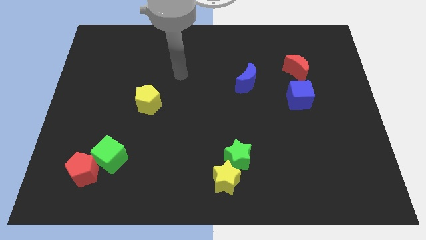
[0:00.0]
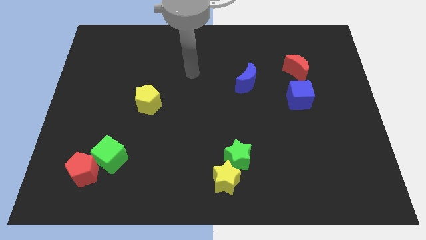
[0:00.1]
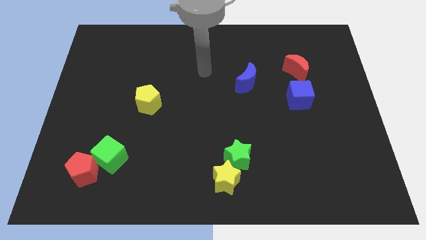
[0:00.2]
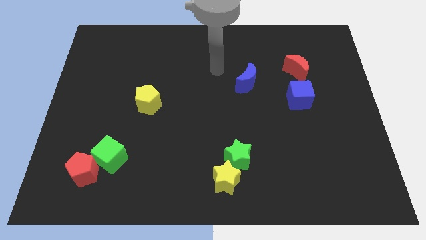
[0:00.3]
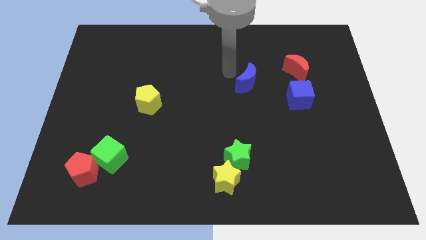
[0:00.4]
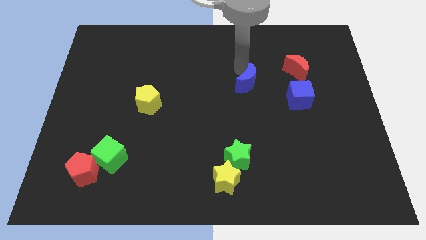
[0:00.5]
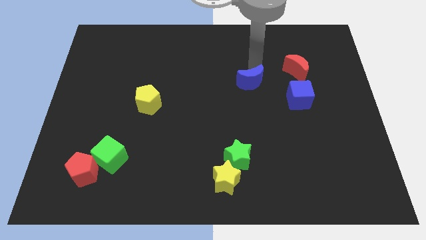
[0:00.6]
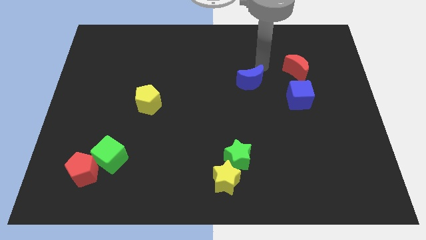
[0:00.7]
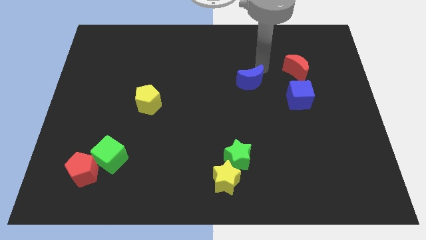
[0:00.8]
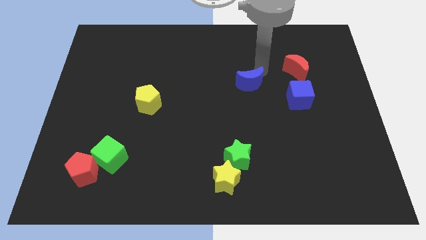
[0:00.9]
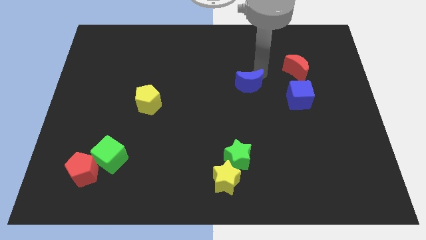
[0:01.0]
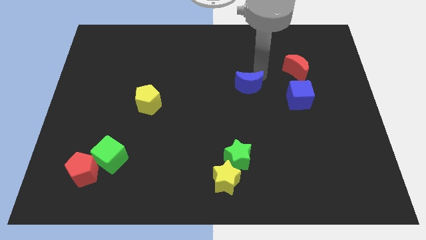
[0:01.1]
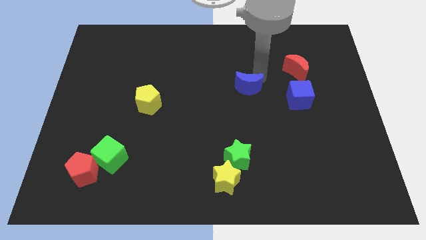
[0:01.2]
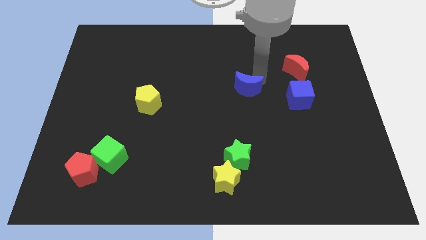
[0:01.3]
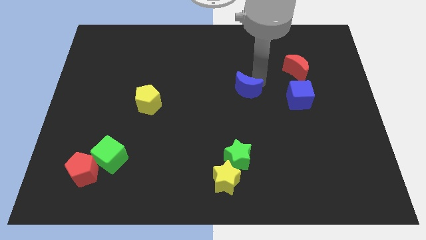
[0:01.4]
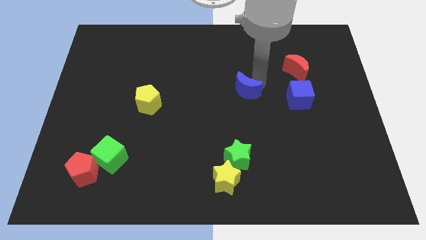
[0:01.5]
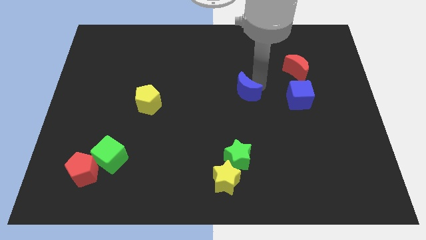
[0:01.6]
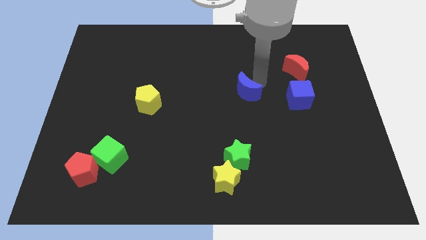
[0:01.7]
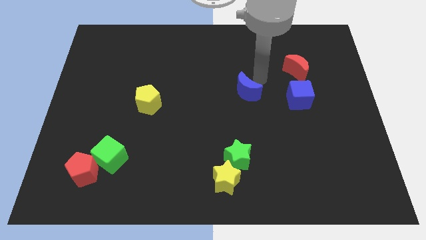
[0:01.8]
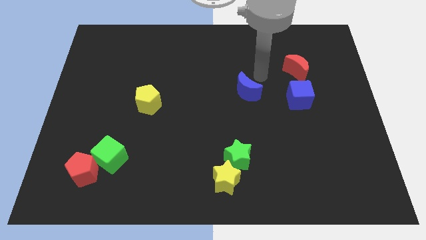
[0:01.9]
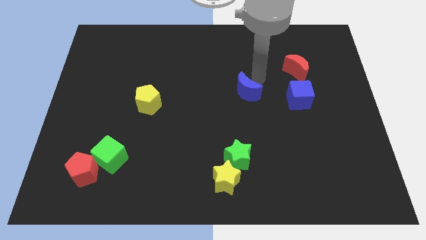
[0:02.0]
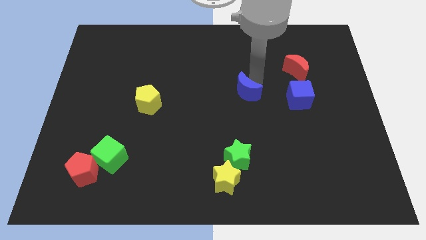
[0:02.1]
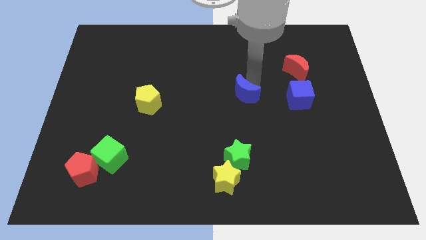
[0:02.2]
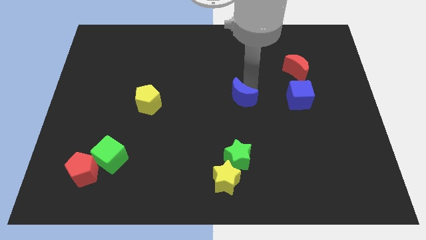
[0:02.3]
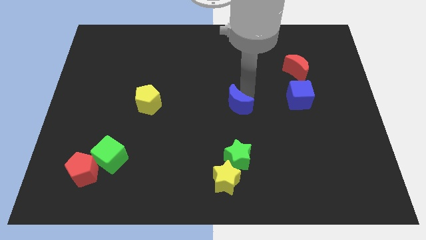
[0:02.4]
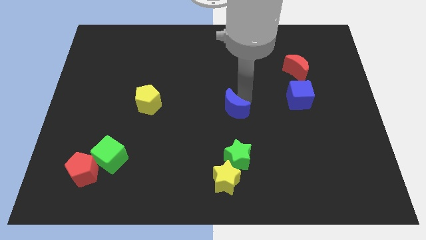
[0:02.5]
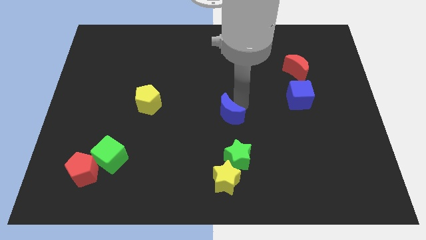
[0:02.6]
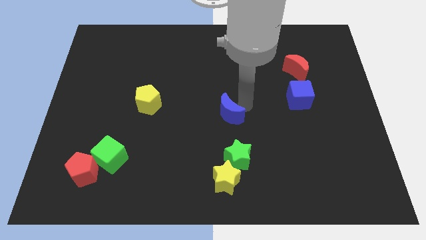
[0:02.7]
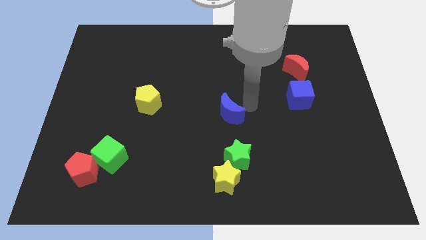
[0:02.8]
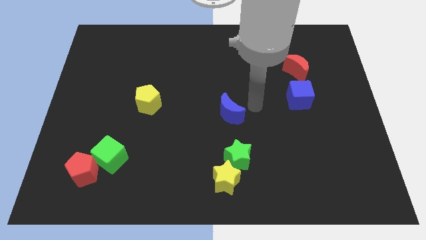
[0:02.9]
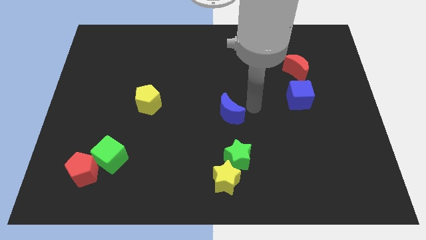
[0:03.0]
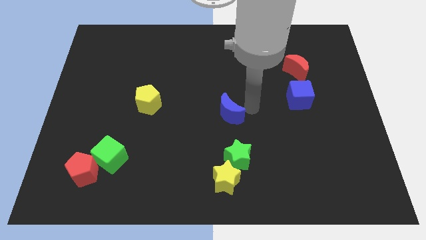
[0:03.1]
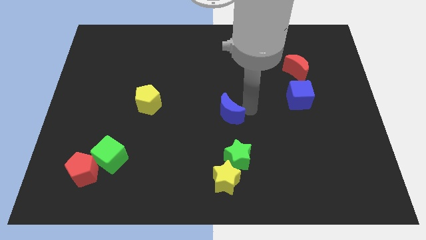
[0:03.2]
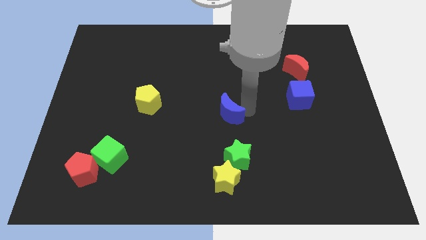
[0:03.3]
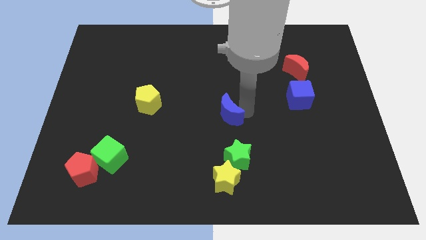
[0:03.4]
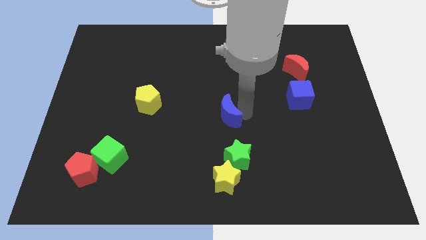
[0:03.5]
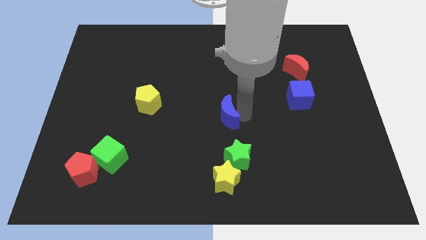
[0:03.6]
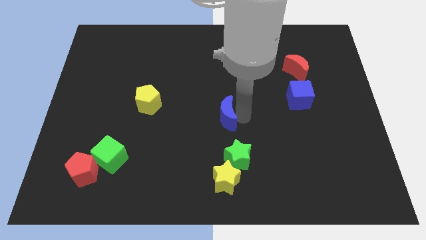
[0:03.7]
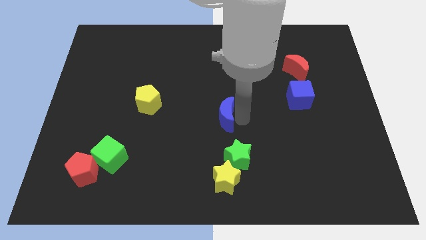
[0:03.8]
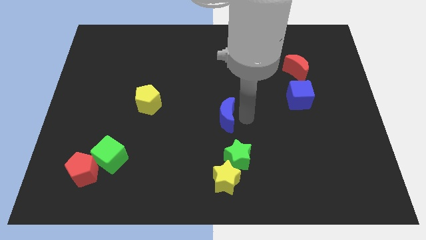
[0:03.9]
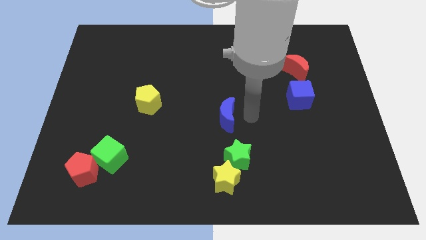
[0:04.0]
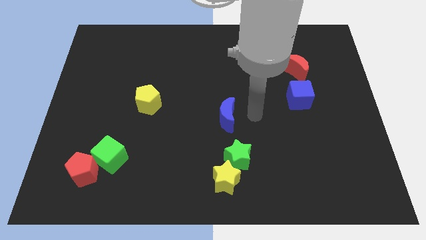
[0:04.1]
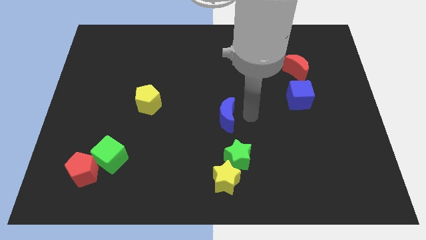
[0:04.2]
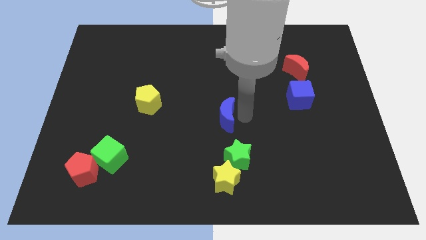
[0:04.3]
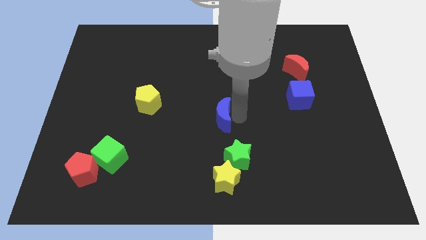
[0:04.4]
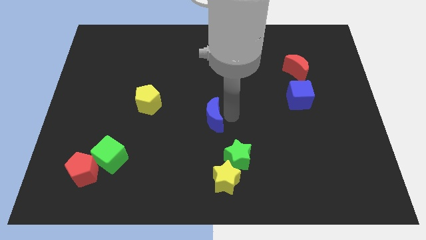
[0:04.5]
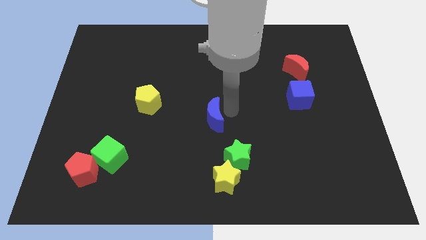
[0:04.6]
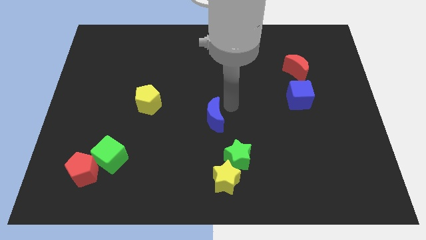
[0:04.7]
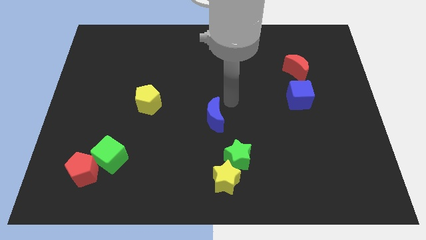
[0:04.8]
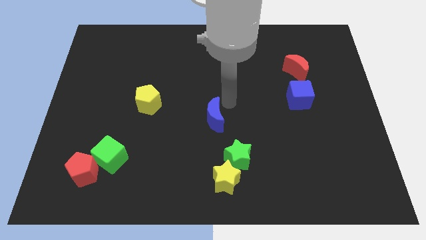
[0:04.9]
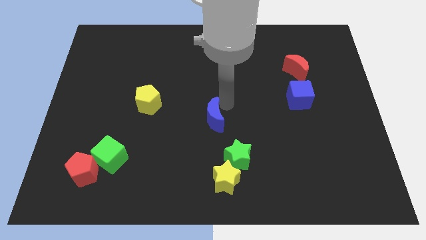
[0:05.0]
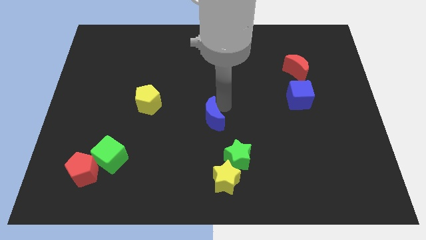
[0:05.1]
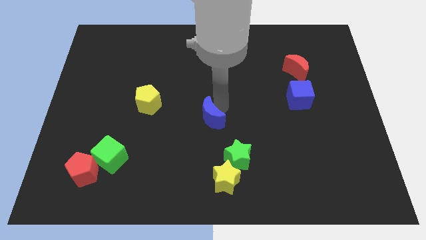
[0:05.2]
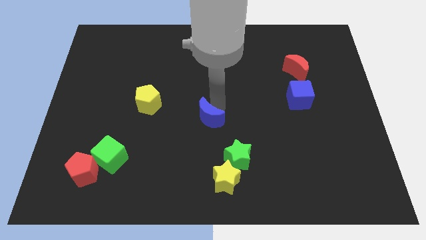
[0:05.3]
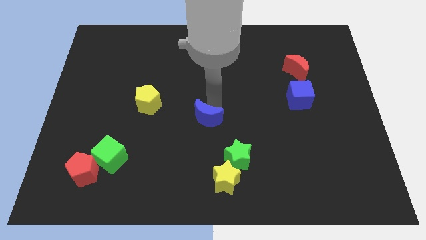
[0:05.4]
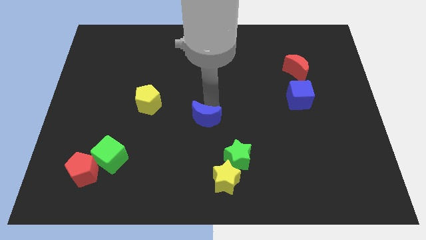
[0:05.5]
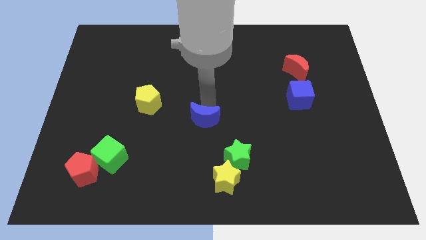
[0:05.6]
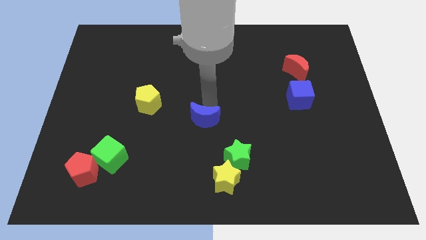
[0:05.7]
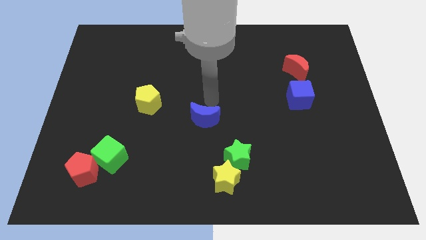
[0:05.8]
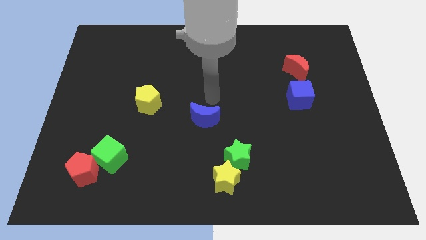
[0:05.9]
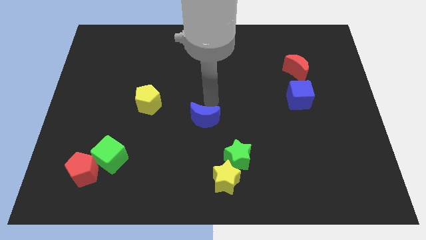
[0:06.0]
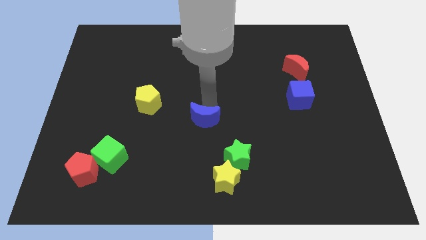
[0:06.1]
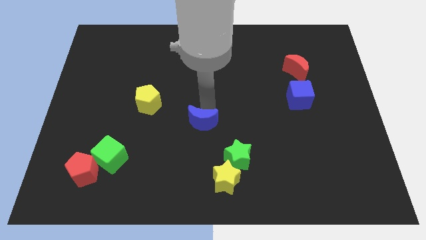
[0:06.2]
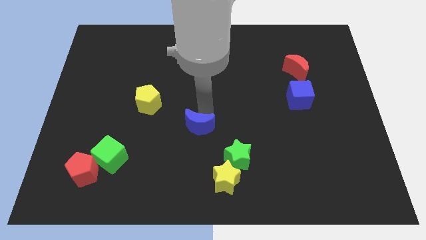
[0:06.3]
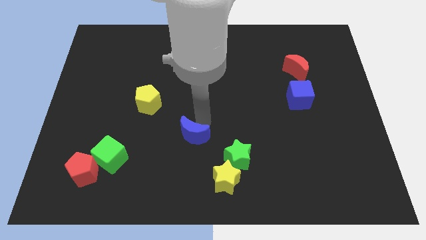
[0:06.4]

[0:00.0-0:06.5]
move the blue moon down and then left

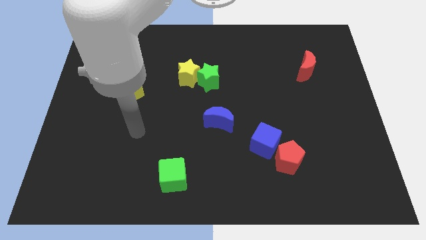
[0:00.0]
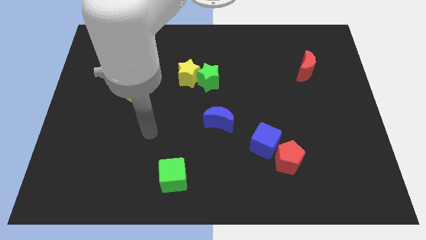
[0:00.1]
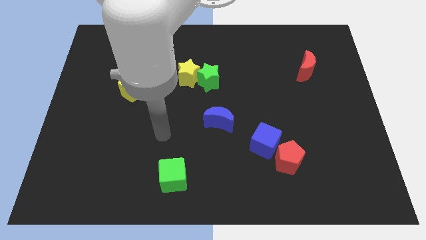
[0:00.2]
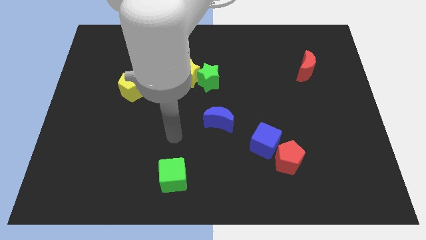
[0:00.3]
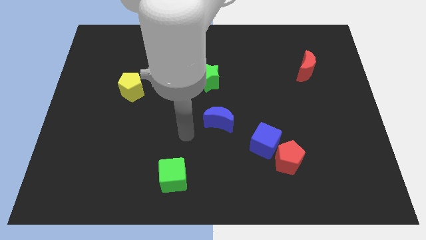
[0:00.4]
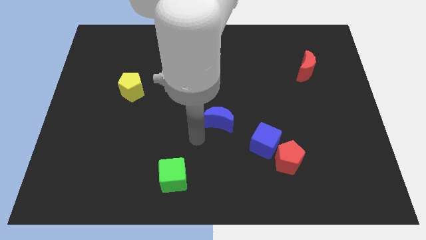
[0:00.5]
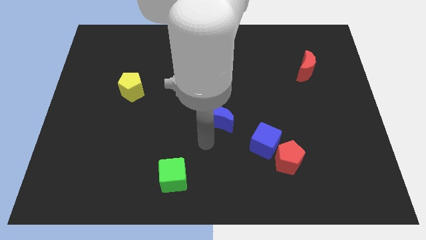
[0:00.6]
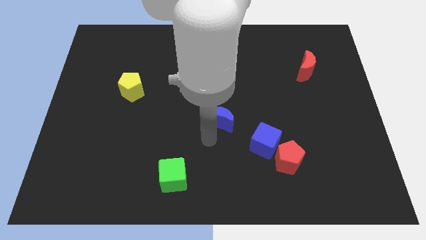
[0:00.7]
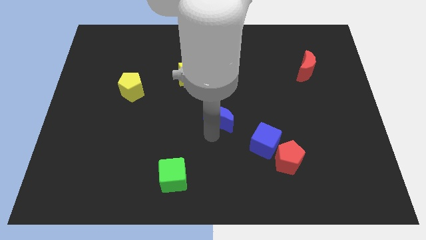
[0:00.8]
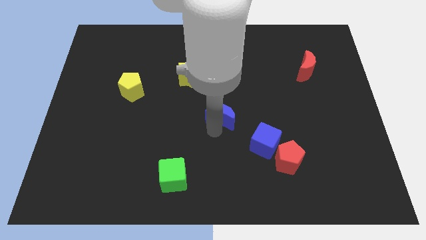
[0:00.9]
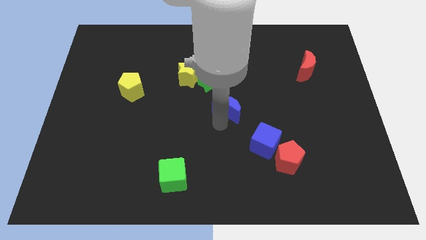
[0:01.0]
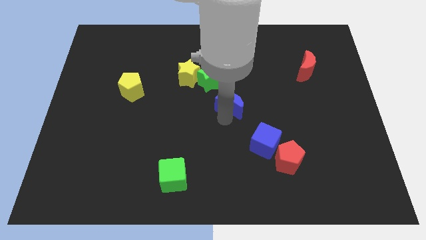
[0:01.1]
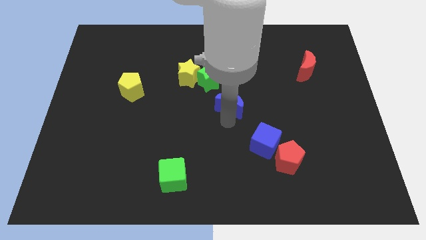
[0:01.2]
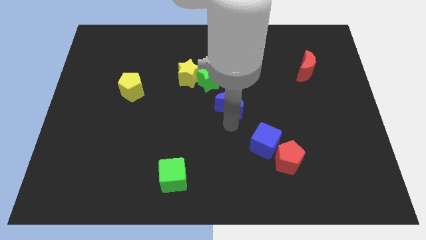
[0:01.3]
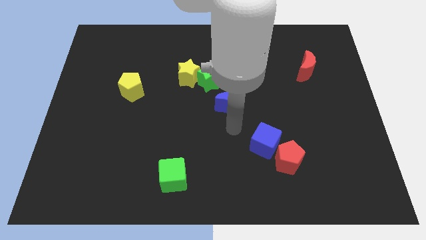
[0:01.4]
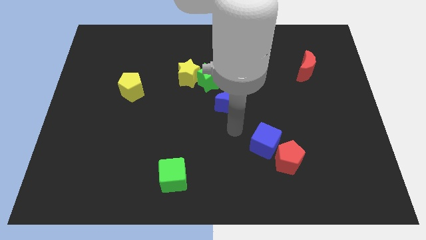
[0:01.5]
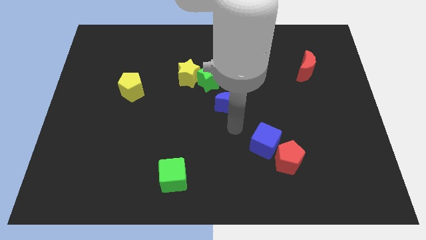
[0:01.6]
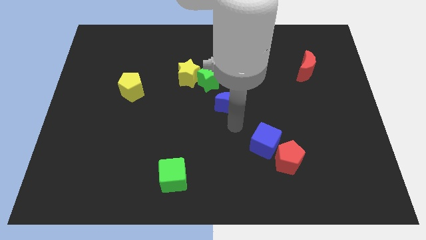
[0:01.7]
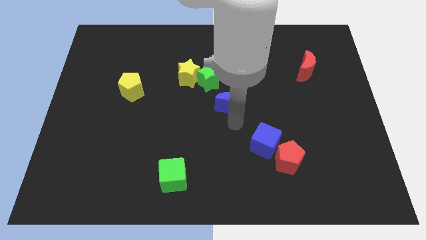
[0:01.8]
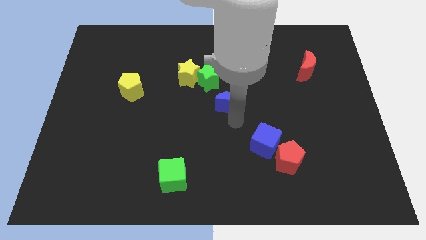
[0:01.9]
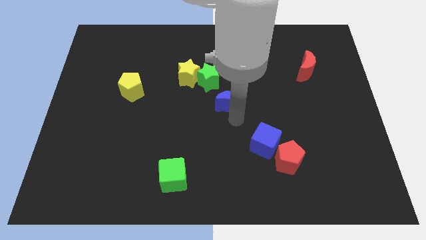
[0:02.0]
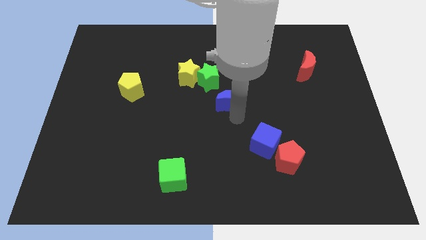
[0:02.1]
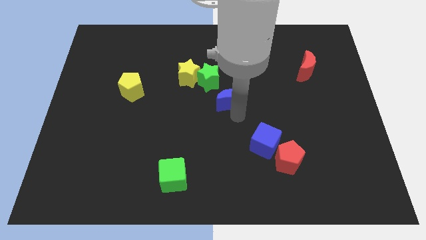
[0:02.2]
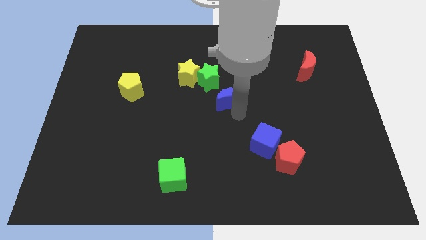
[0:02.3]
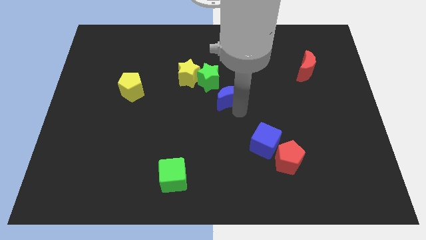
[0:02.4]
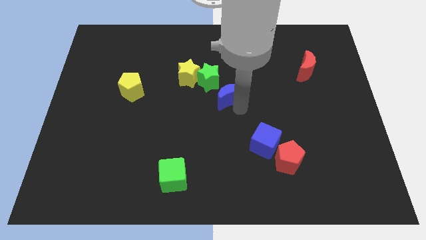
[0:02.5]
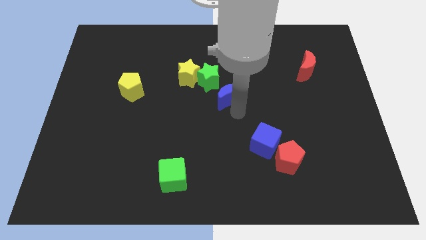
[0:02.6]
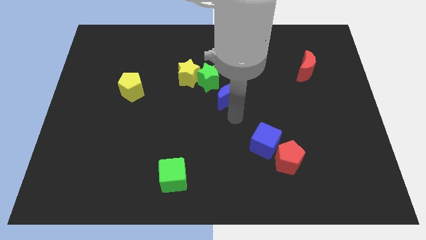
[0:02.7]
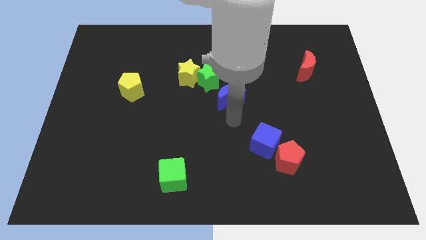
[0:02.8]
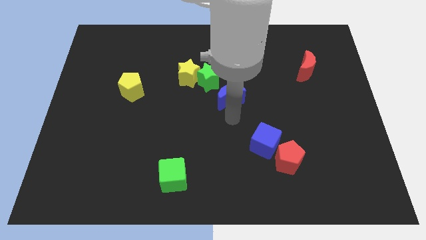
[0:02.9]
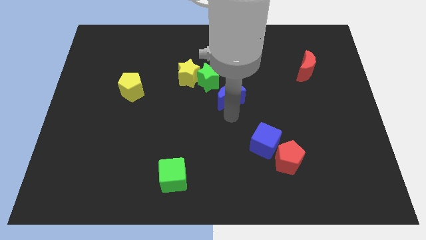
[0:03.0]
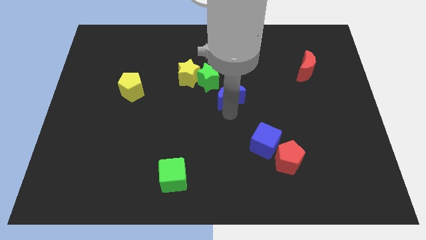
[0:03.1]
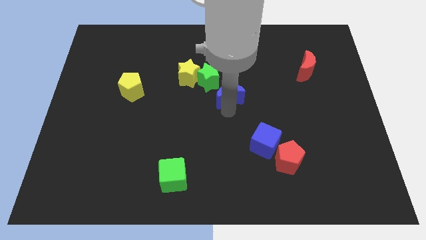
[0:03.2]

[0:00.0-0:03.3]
push the blue moon upwards a little bit
